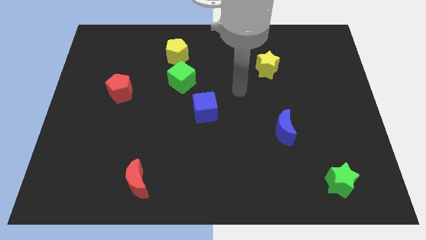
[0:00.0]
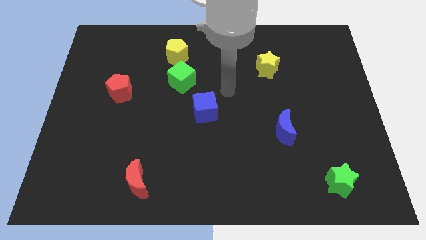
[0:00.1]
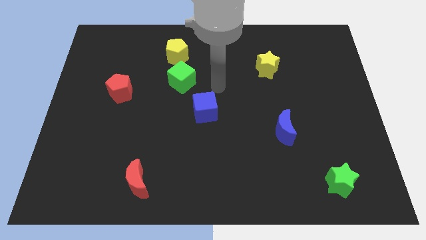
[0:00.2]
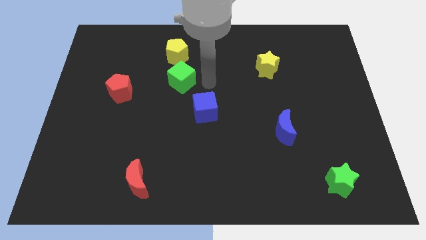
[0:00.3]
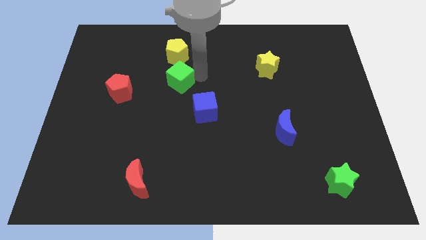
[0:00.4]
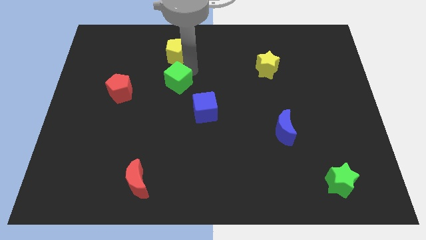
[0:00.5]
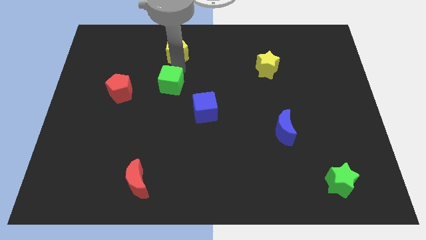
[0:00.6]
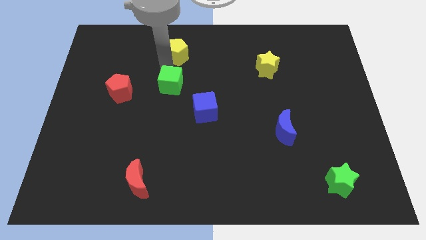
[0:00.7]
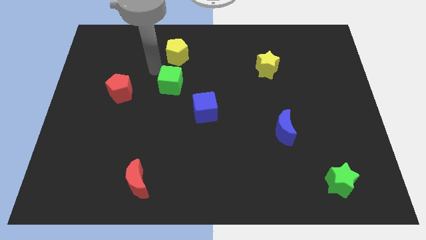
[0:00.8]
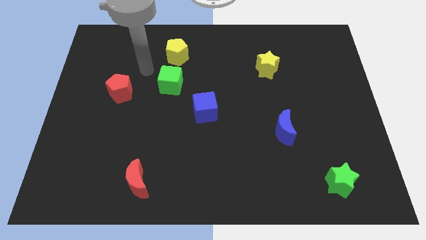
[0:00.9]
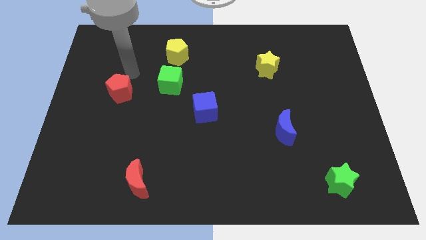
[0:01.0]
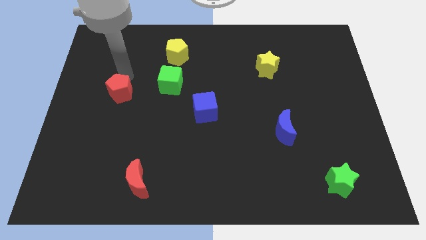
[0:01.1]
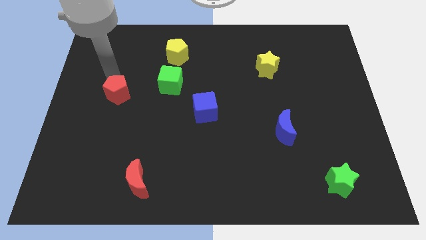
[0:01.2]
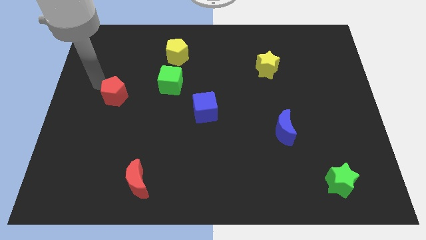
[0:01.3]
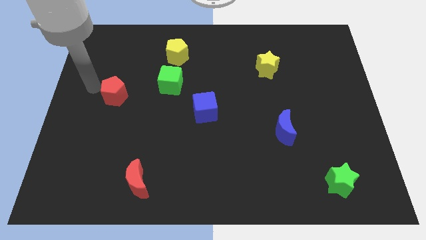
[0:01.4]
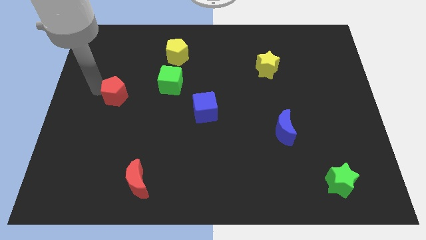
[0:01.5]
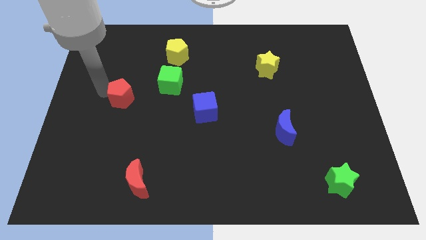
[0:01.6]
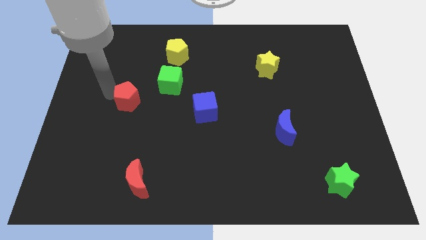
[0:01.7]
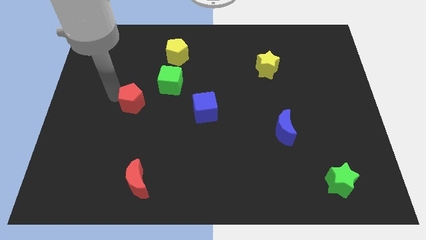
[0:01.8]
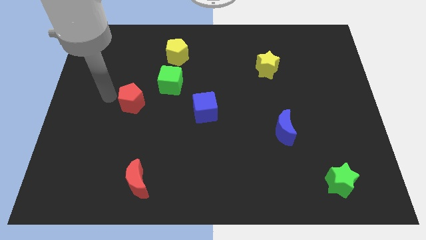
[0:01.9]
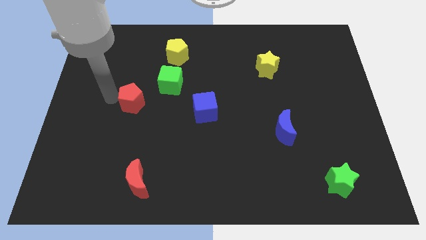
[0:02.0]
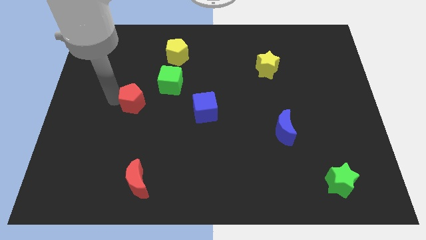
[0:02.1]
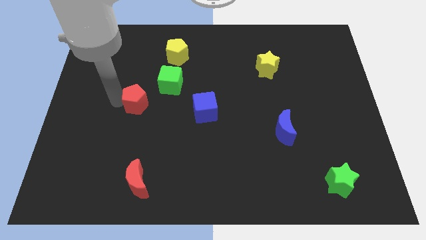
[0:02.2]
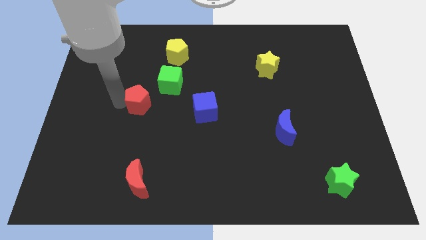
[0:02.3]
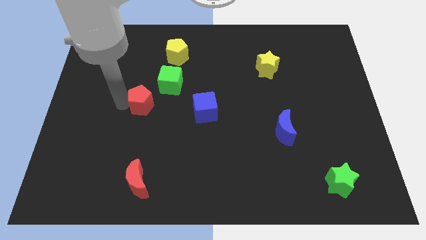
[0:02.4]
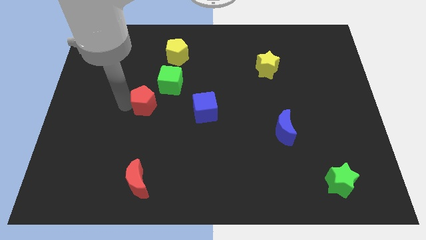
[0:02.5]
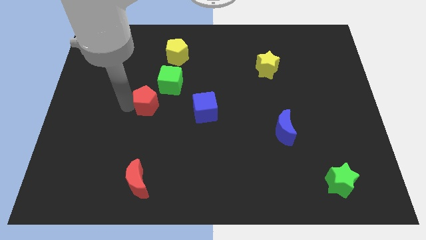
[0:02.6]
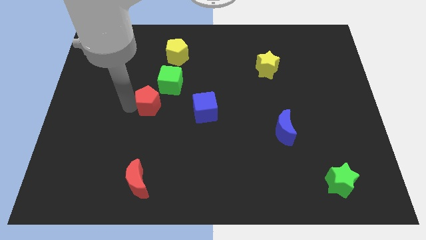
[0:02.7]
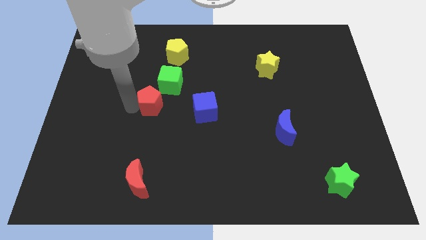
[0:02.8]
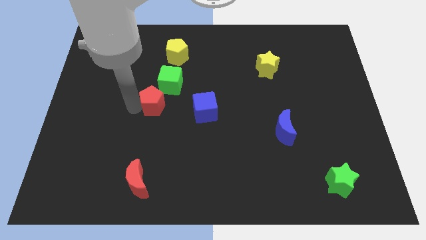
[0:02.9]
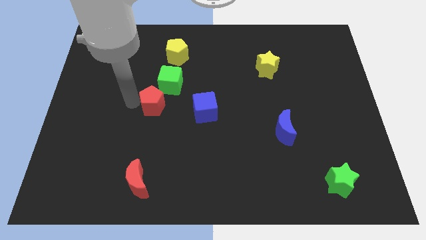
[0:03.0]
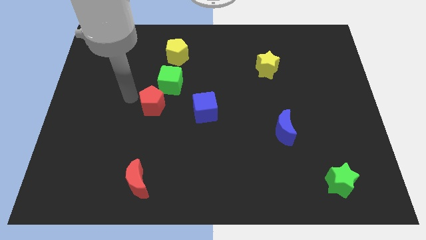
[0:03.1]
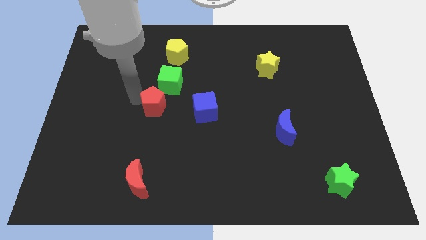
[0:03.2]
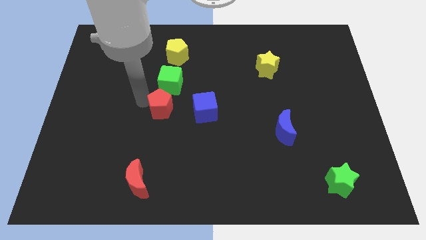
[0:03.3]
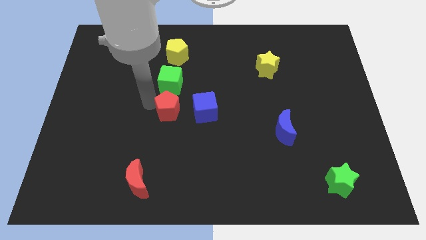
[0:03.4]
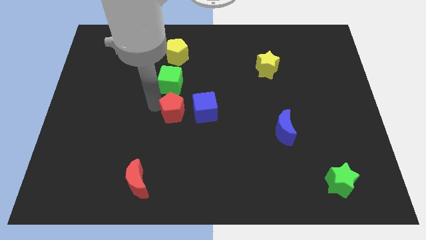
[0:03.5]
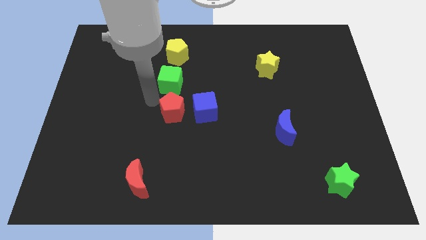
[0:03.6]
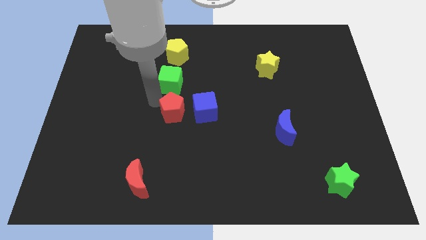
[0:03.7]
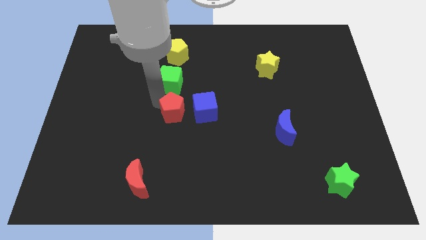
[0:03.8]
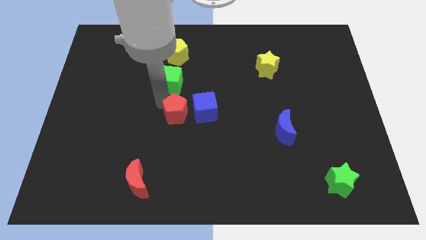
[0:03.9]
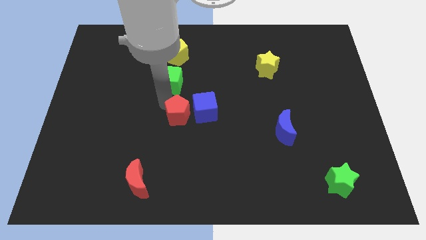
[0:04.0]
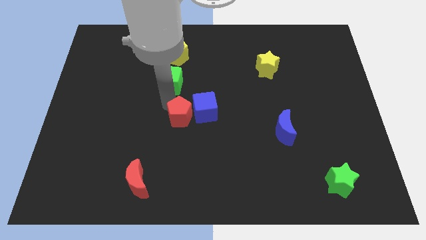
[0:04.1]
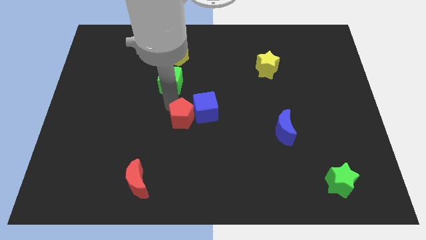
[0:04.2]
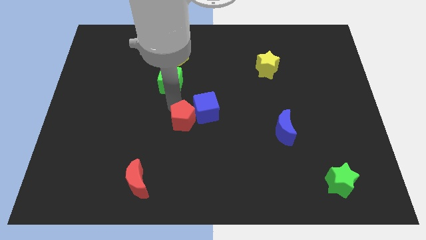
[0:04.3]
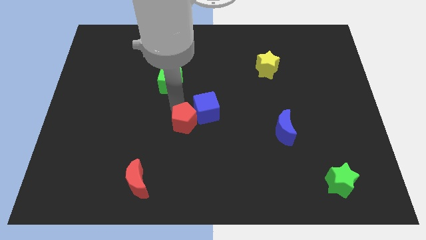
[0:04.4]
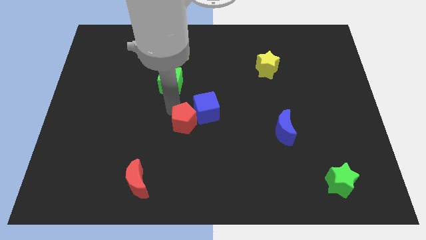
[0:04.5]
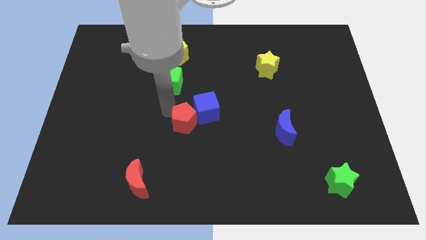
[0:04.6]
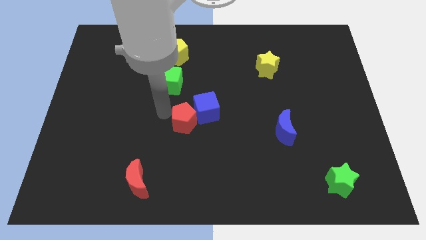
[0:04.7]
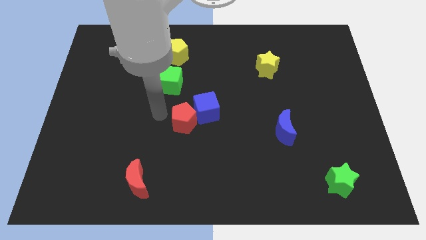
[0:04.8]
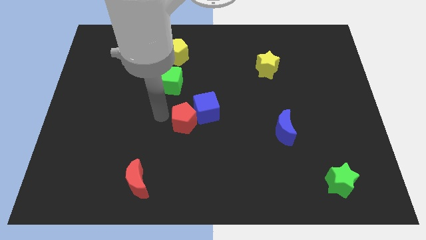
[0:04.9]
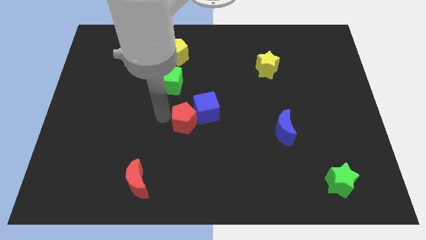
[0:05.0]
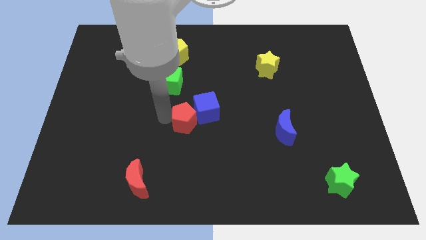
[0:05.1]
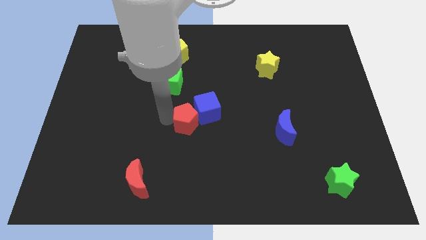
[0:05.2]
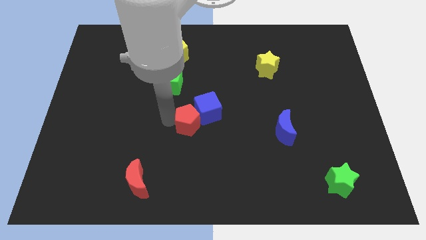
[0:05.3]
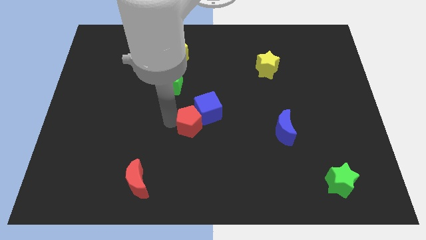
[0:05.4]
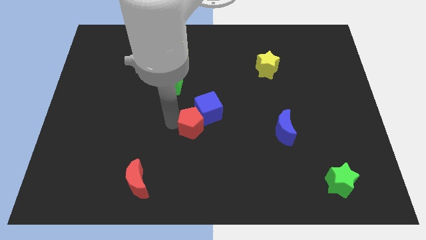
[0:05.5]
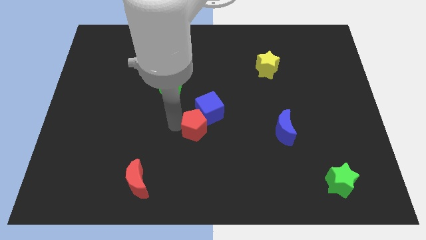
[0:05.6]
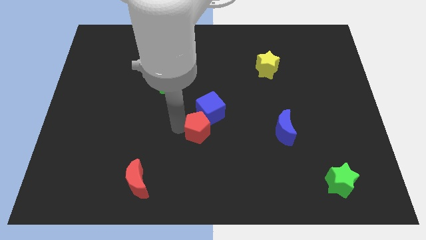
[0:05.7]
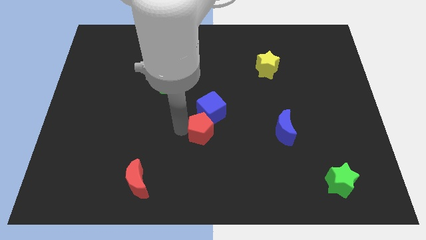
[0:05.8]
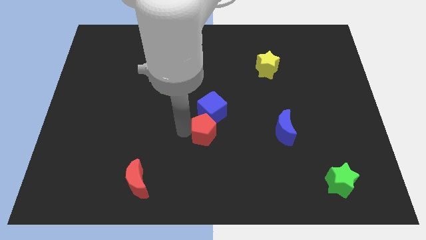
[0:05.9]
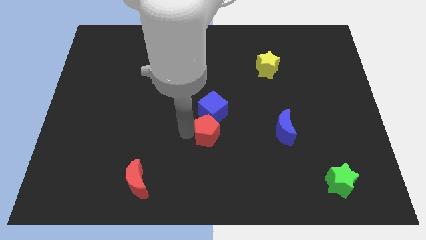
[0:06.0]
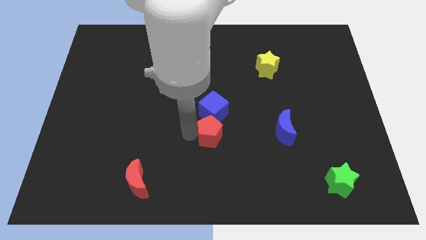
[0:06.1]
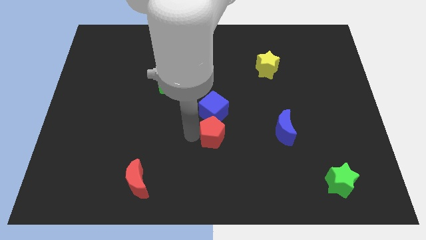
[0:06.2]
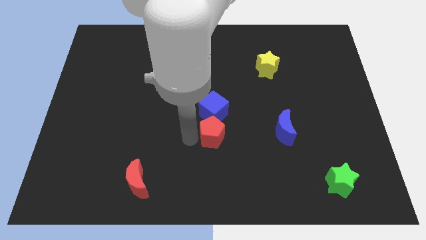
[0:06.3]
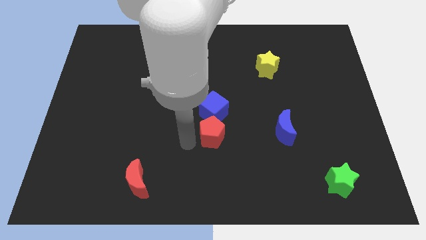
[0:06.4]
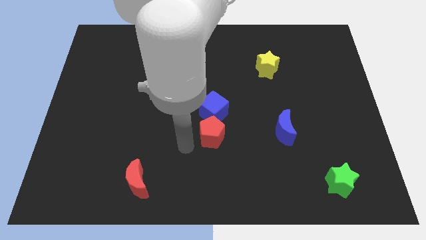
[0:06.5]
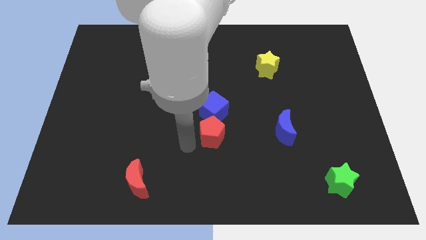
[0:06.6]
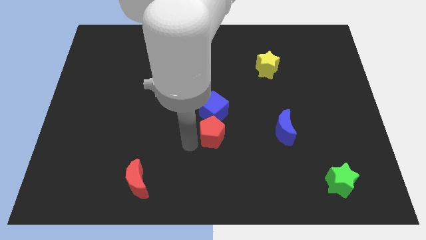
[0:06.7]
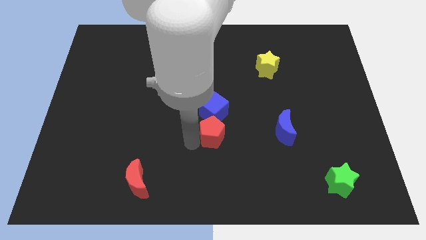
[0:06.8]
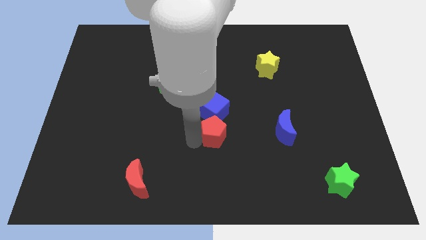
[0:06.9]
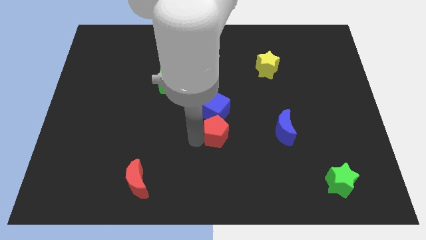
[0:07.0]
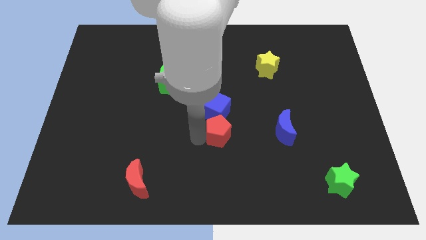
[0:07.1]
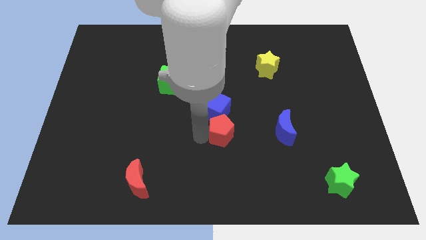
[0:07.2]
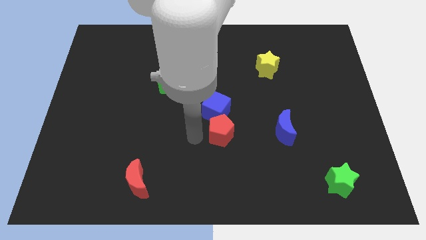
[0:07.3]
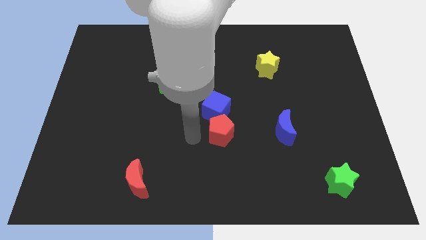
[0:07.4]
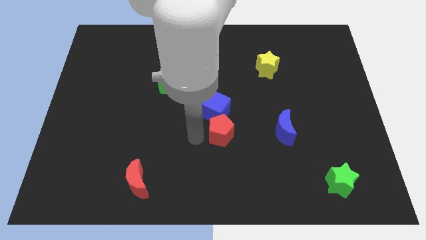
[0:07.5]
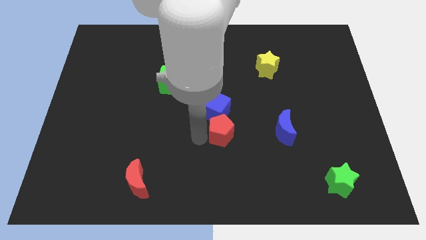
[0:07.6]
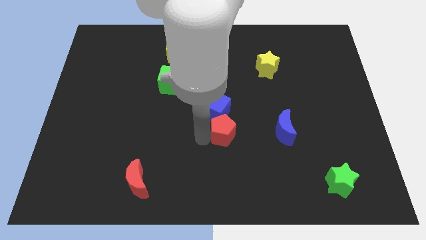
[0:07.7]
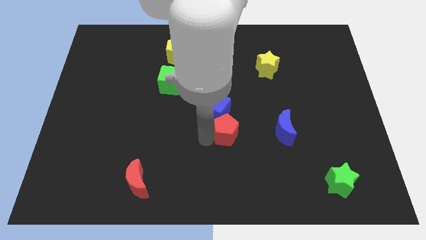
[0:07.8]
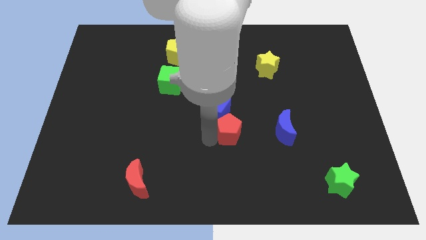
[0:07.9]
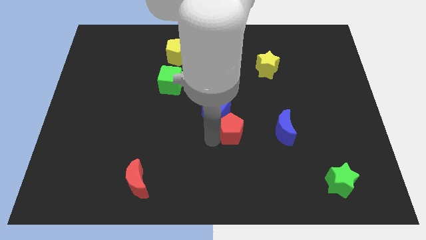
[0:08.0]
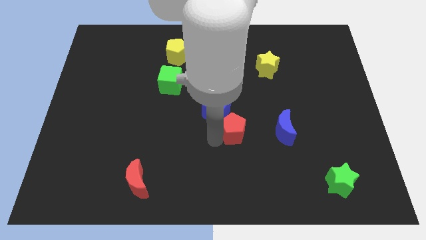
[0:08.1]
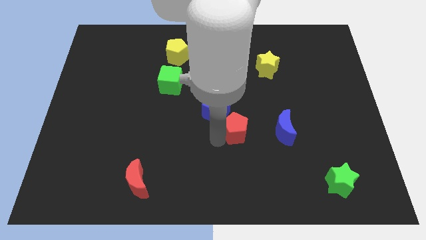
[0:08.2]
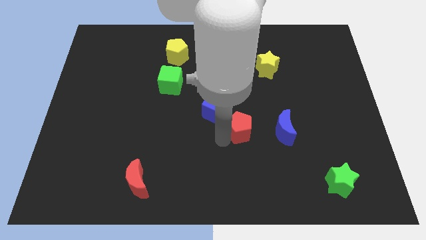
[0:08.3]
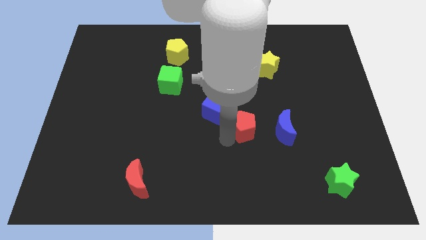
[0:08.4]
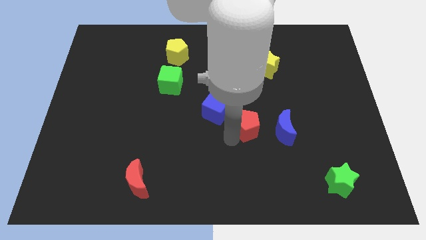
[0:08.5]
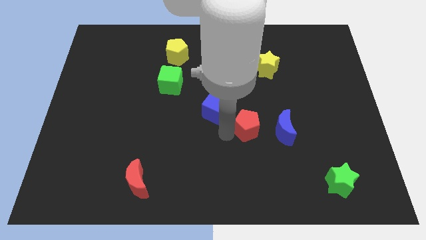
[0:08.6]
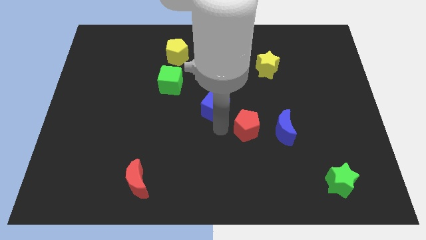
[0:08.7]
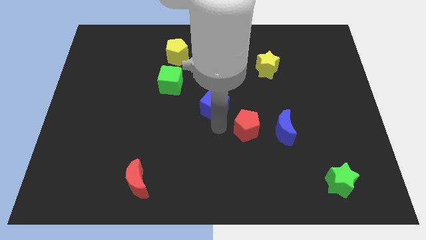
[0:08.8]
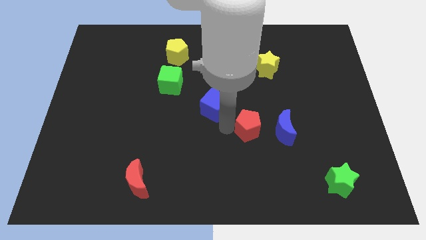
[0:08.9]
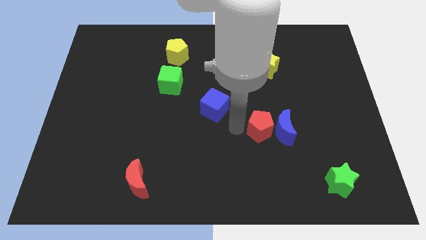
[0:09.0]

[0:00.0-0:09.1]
push the red pentagon to the blue moon
